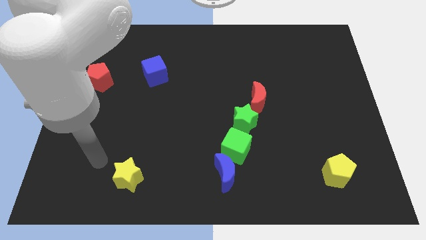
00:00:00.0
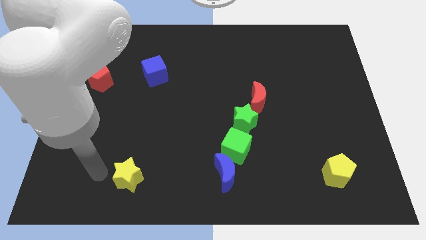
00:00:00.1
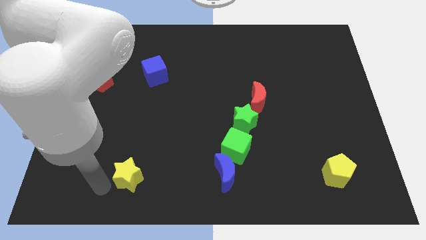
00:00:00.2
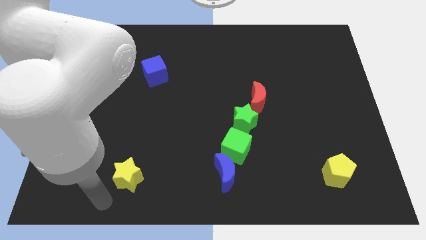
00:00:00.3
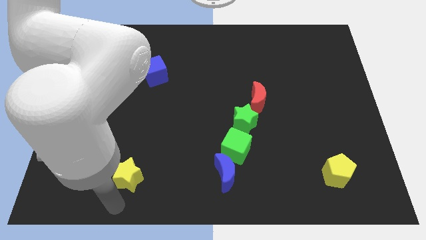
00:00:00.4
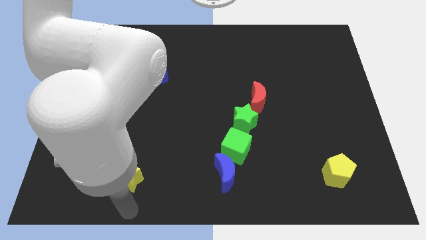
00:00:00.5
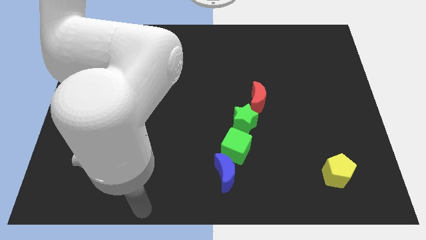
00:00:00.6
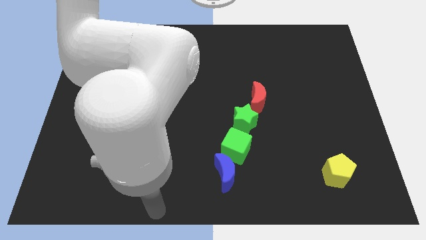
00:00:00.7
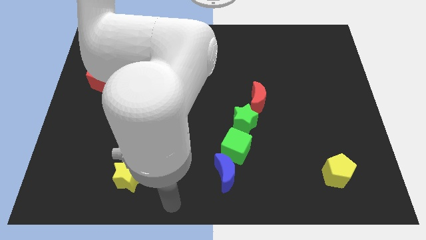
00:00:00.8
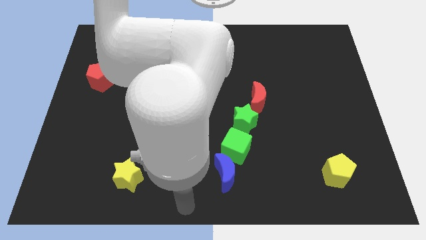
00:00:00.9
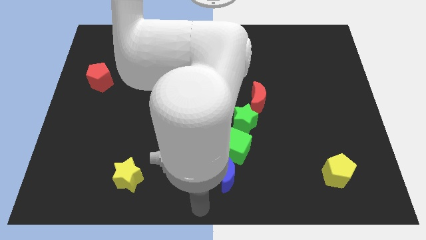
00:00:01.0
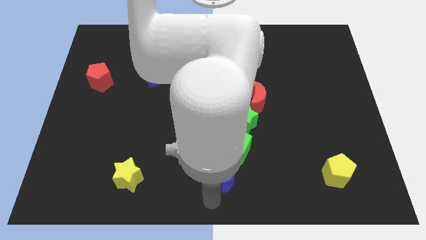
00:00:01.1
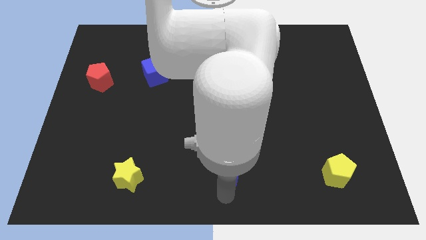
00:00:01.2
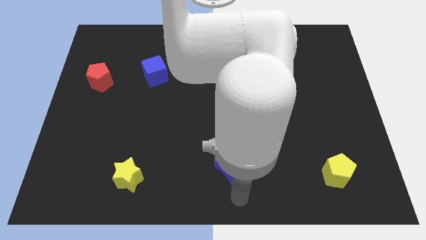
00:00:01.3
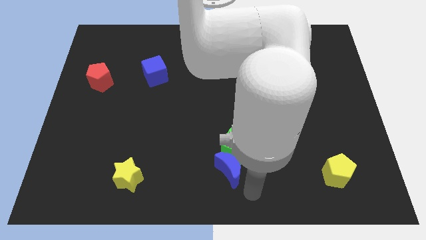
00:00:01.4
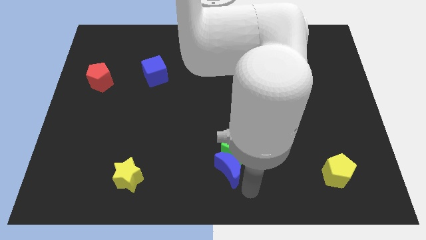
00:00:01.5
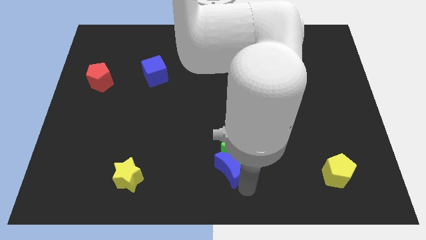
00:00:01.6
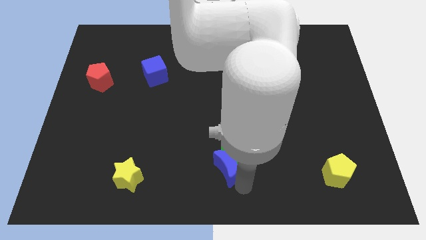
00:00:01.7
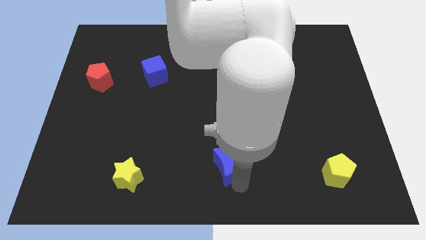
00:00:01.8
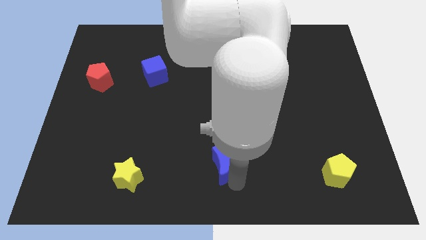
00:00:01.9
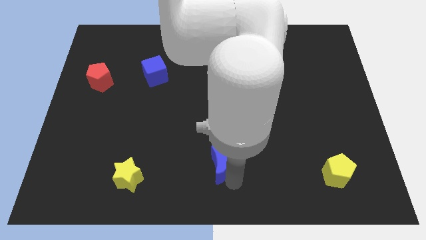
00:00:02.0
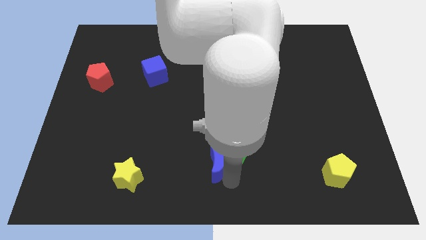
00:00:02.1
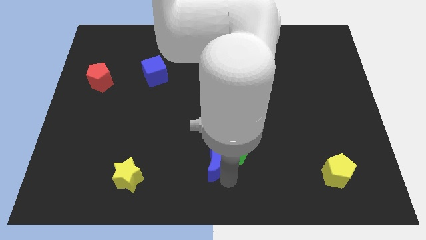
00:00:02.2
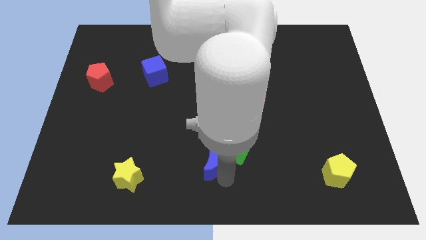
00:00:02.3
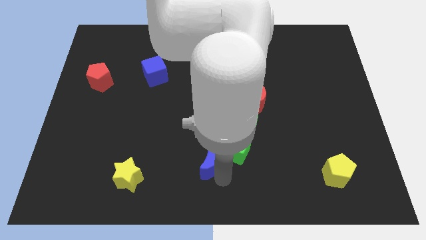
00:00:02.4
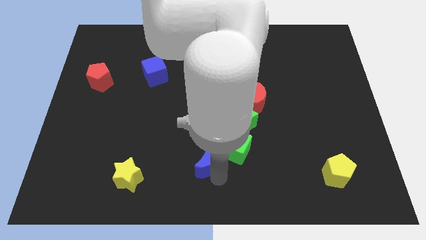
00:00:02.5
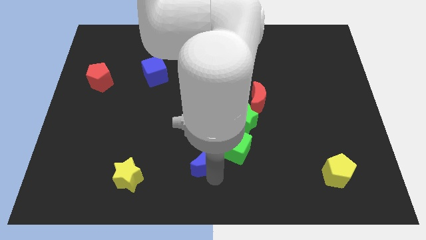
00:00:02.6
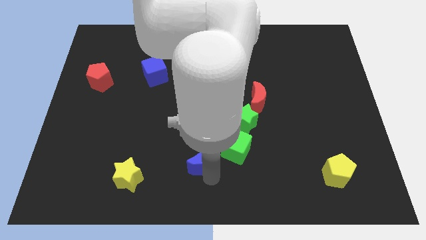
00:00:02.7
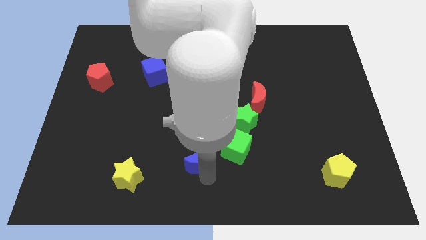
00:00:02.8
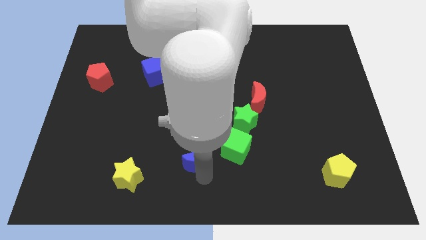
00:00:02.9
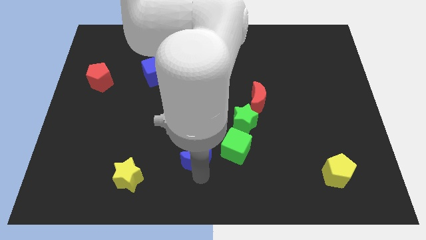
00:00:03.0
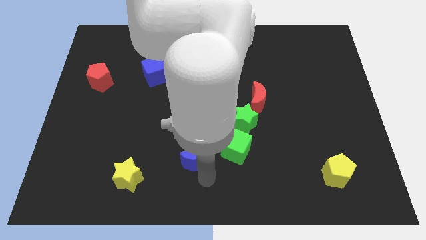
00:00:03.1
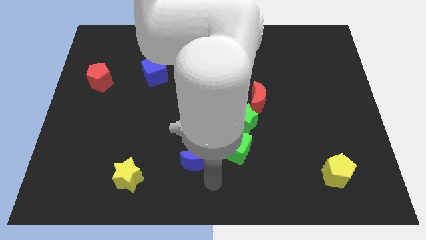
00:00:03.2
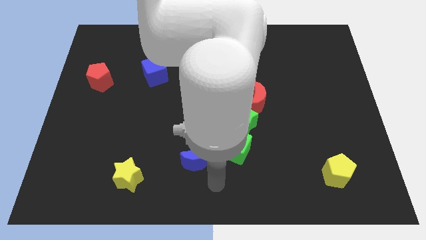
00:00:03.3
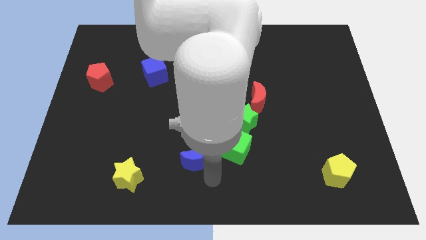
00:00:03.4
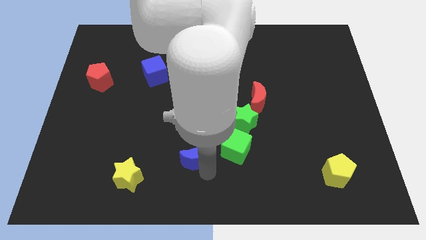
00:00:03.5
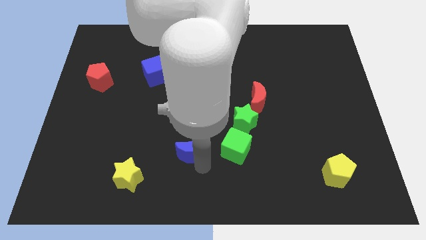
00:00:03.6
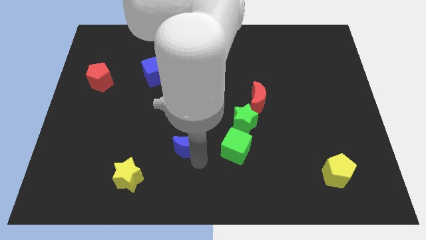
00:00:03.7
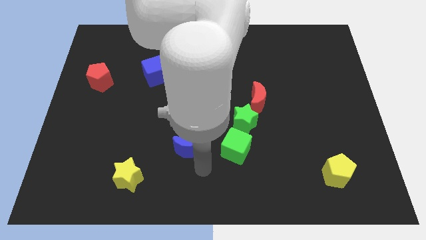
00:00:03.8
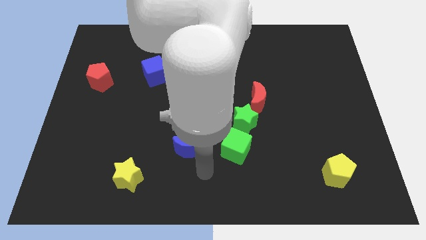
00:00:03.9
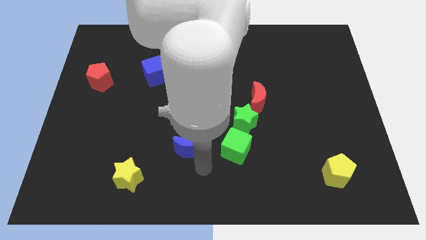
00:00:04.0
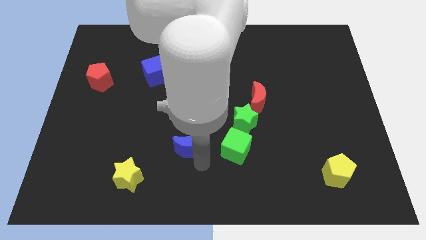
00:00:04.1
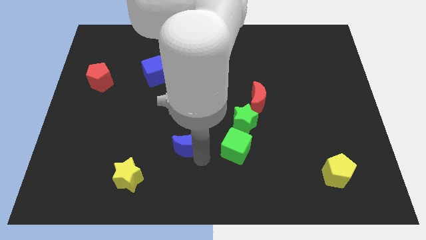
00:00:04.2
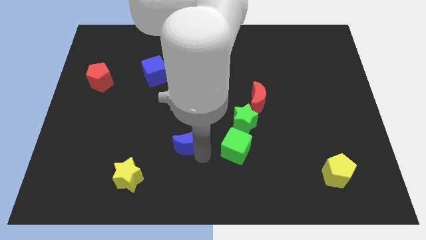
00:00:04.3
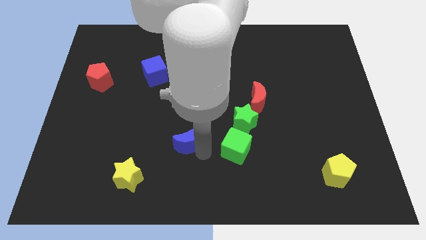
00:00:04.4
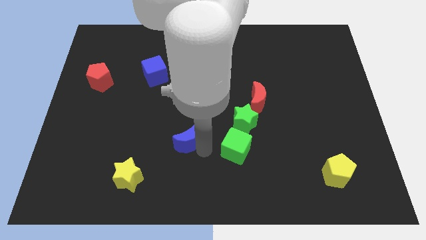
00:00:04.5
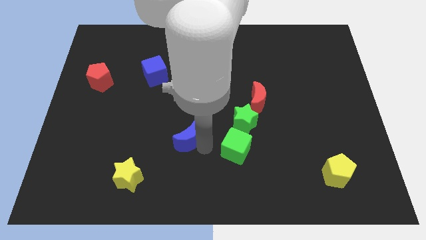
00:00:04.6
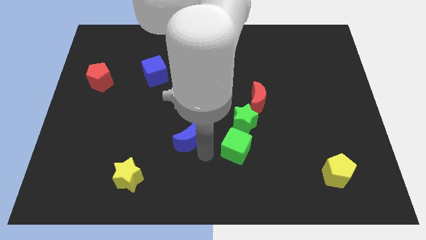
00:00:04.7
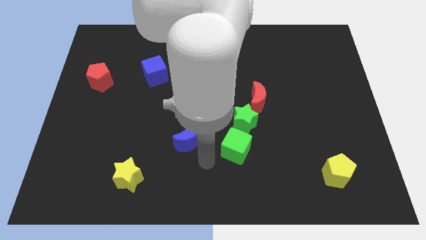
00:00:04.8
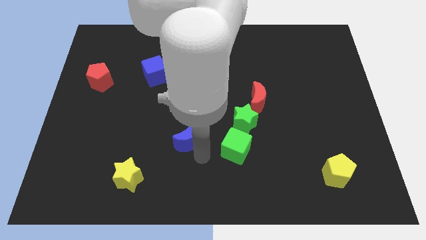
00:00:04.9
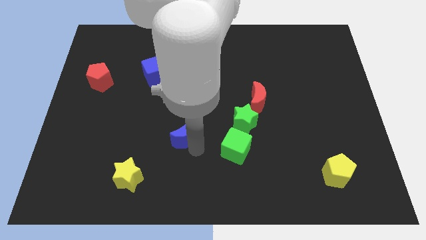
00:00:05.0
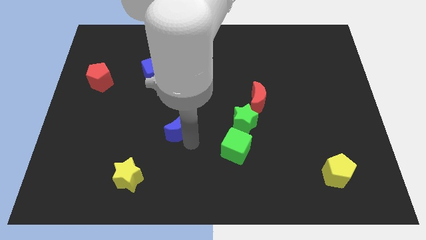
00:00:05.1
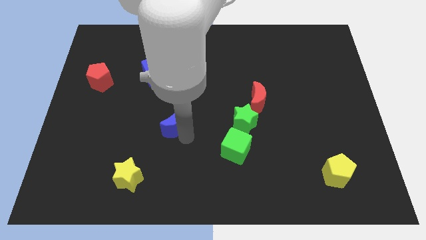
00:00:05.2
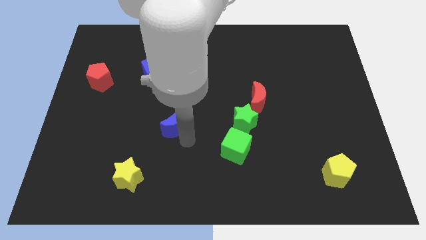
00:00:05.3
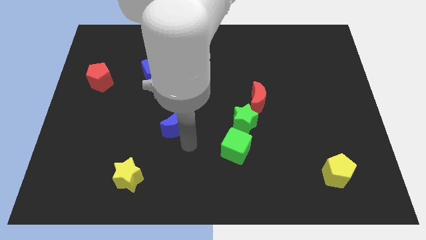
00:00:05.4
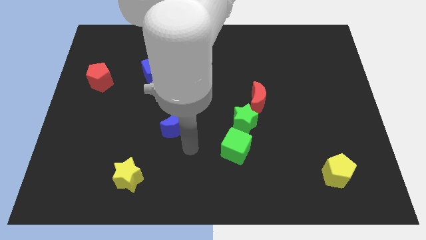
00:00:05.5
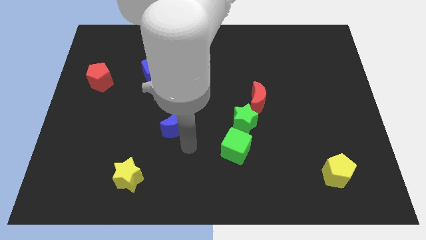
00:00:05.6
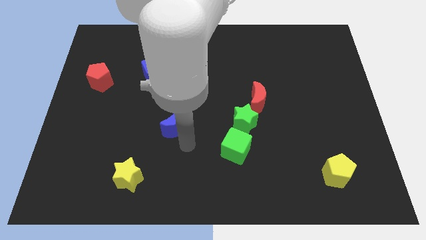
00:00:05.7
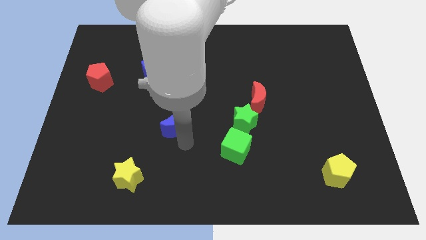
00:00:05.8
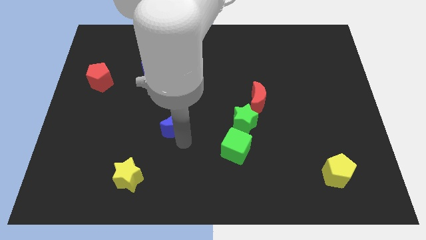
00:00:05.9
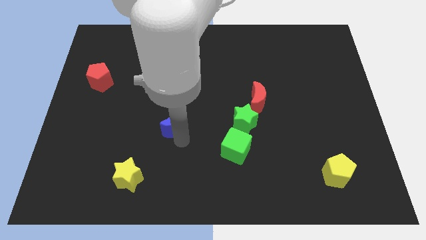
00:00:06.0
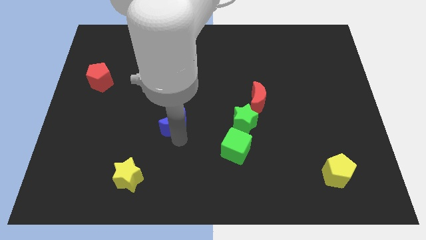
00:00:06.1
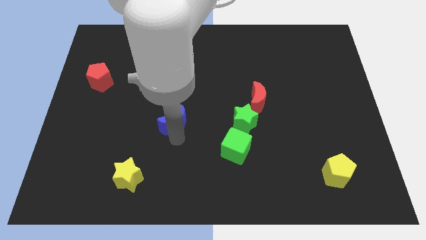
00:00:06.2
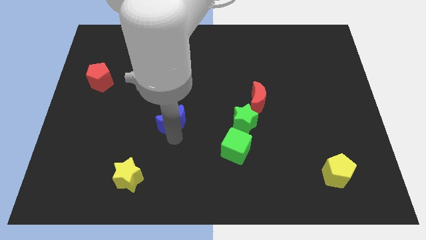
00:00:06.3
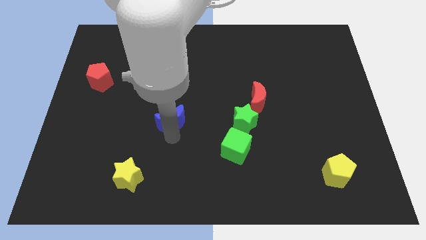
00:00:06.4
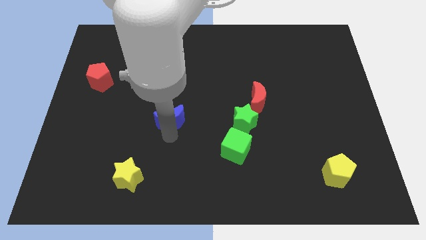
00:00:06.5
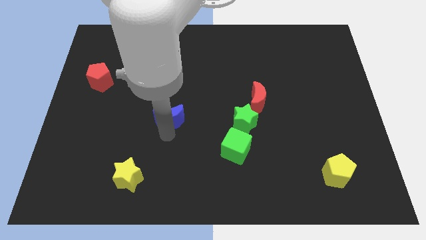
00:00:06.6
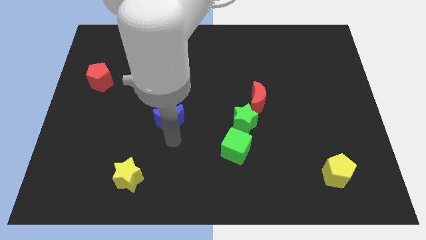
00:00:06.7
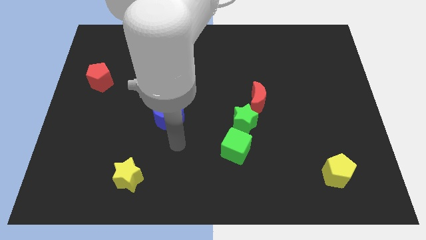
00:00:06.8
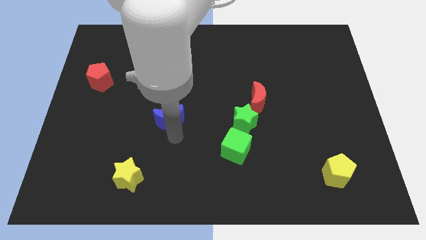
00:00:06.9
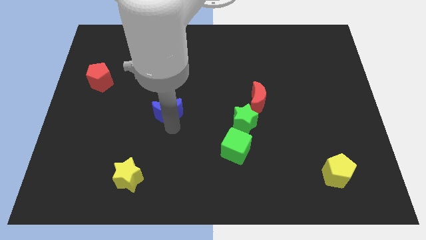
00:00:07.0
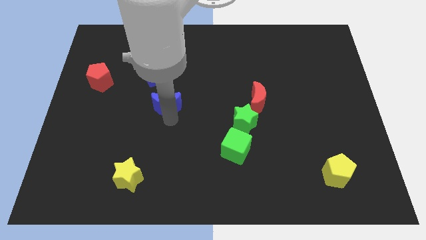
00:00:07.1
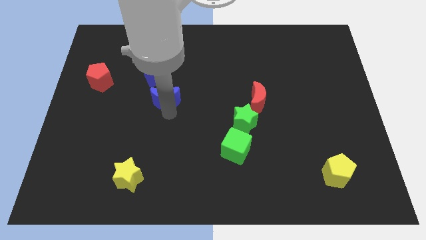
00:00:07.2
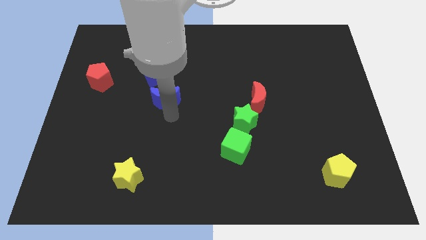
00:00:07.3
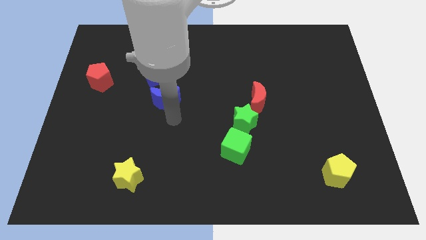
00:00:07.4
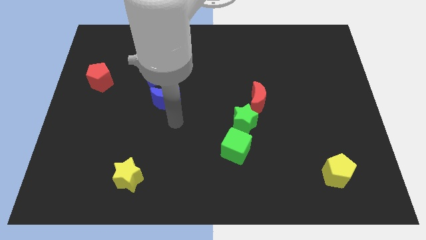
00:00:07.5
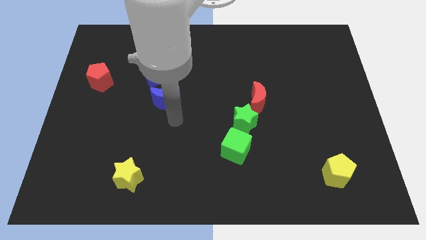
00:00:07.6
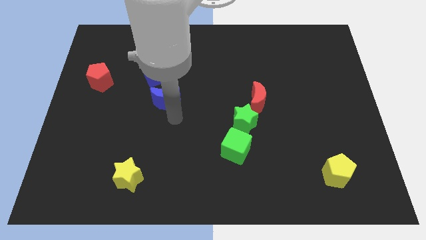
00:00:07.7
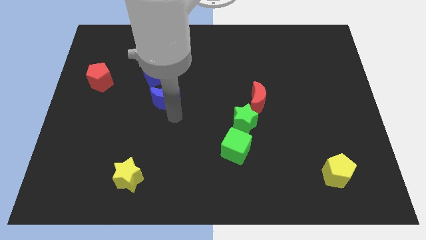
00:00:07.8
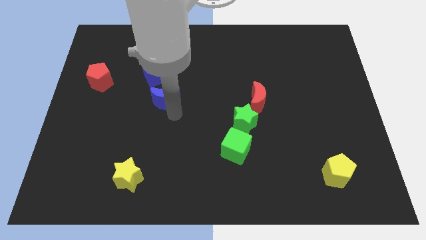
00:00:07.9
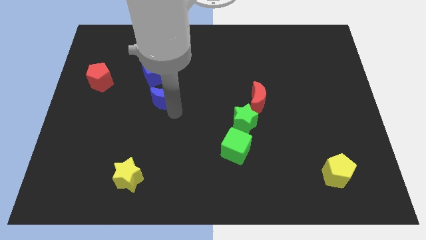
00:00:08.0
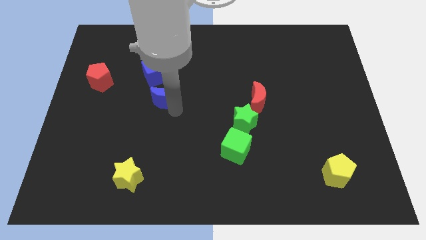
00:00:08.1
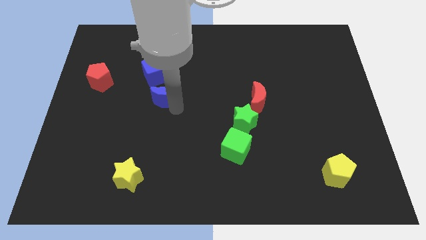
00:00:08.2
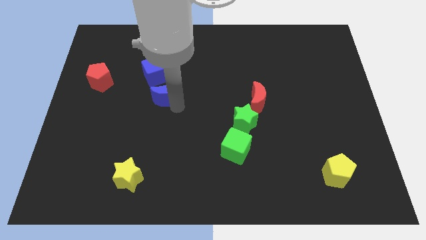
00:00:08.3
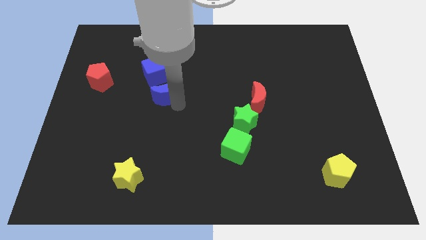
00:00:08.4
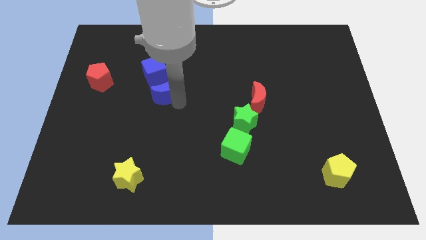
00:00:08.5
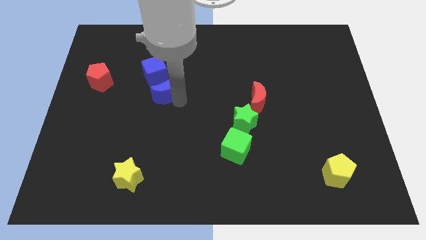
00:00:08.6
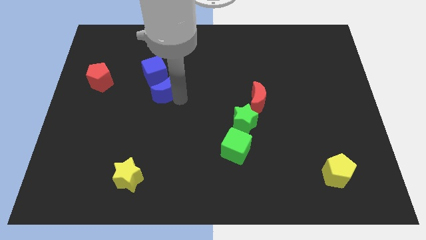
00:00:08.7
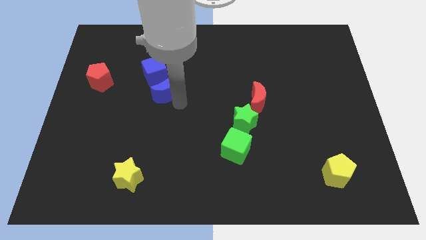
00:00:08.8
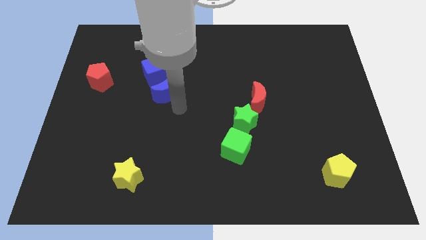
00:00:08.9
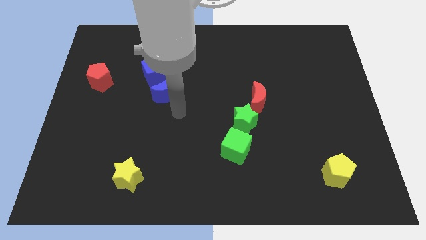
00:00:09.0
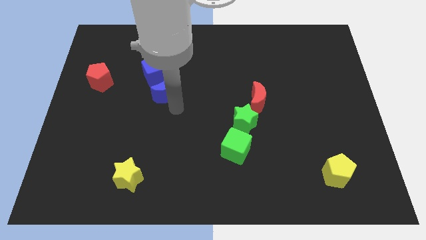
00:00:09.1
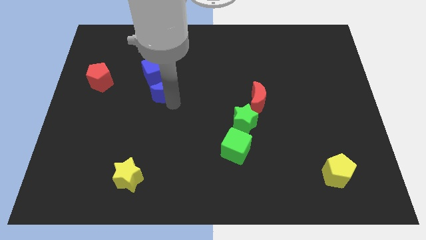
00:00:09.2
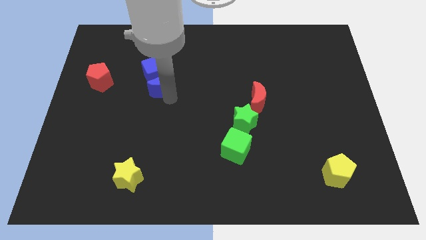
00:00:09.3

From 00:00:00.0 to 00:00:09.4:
slide the blue moon towards the blue cube
